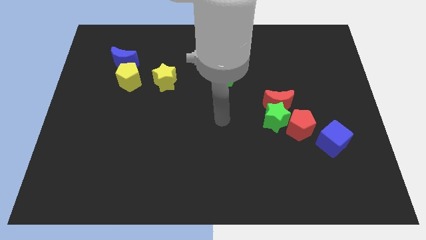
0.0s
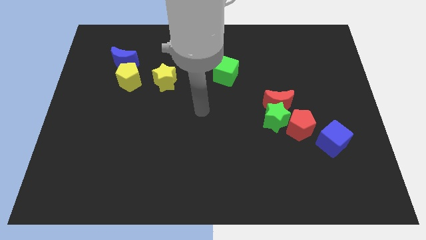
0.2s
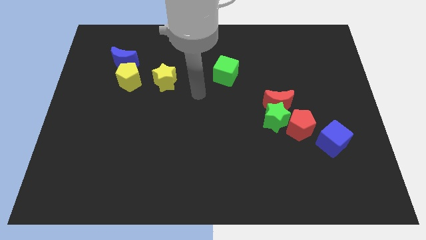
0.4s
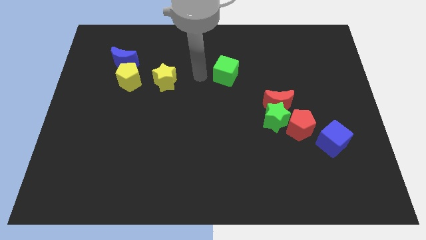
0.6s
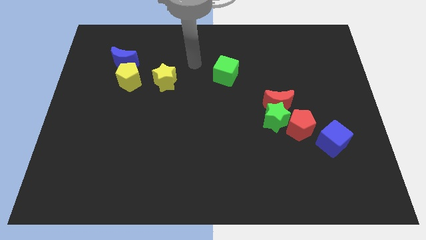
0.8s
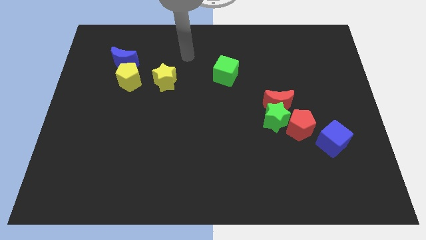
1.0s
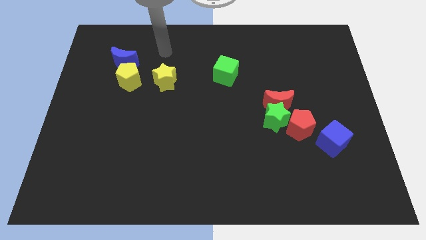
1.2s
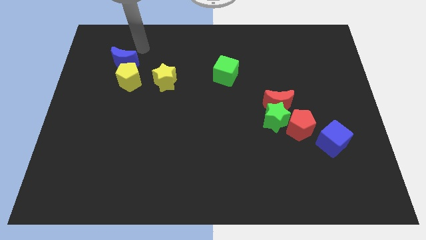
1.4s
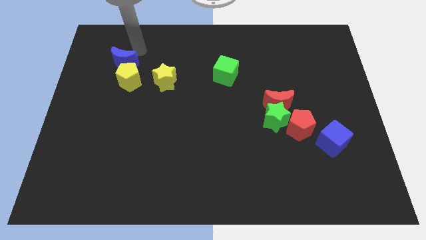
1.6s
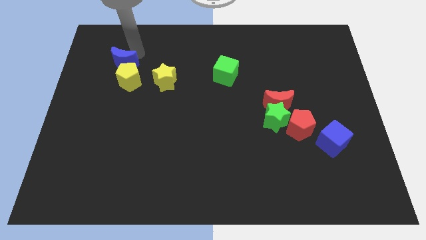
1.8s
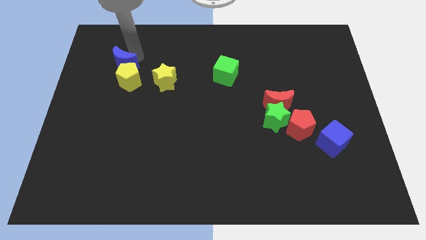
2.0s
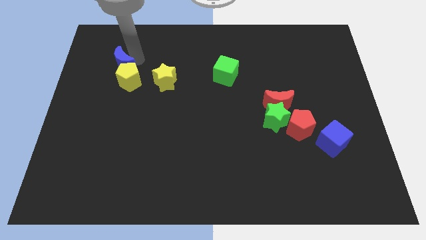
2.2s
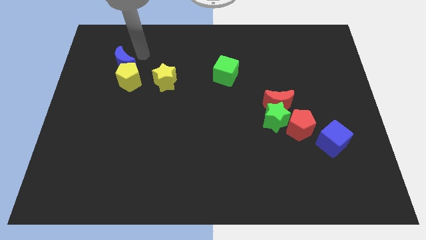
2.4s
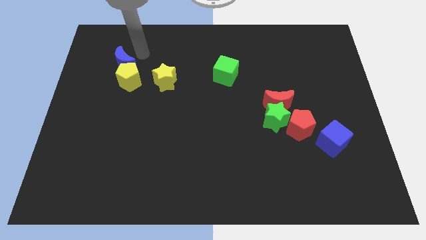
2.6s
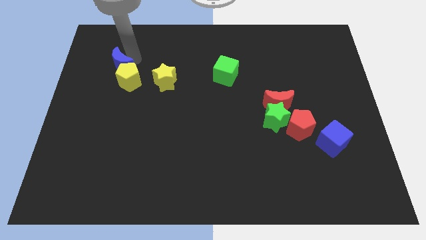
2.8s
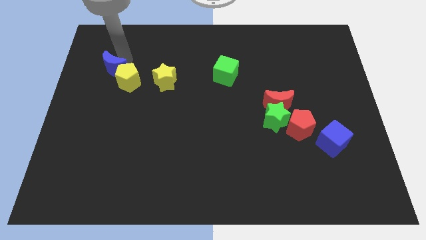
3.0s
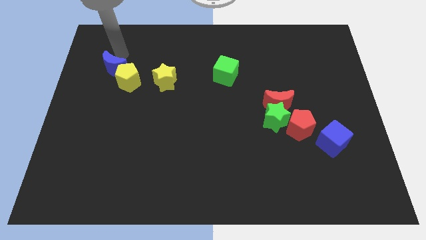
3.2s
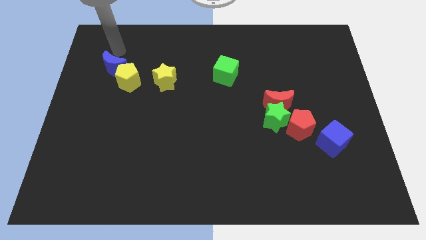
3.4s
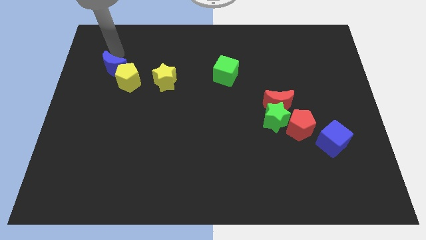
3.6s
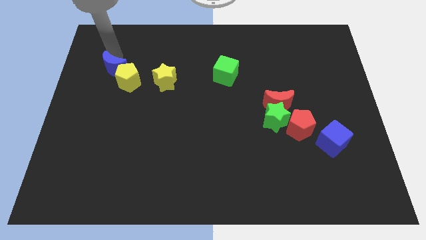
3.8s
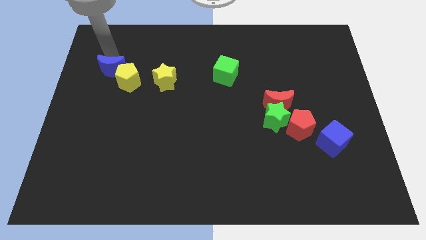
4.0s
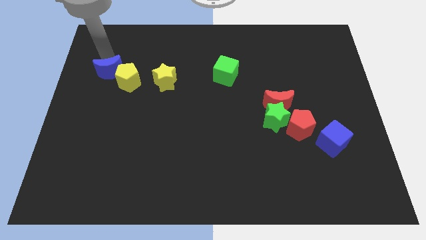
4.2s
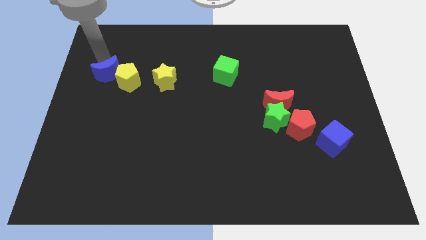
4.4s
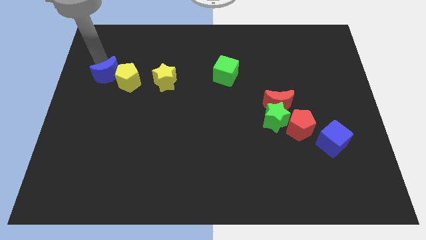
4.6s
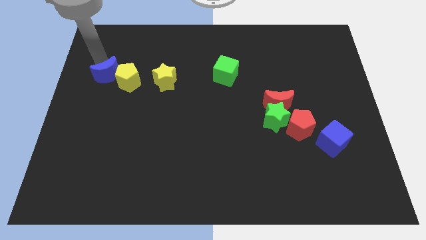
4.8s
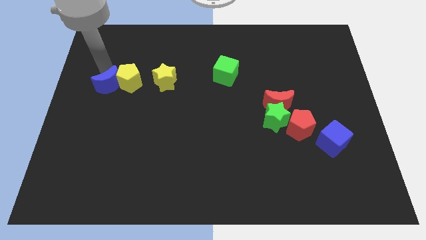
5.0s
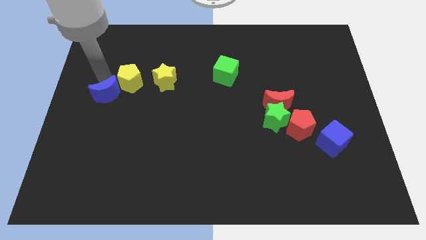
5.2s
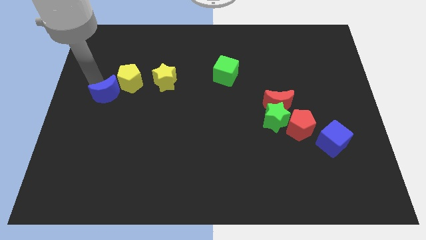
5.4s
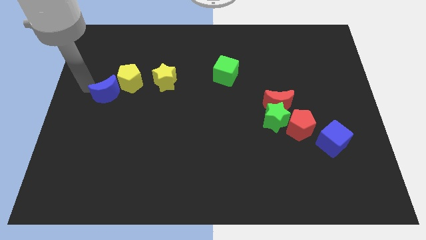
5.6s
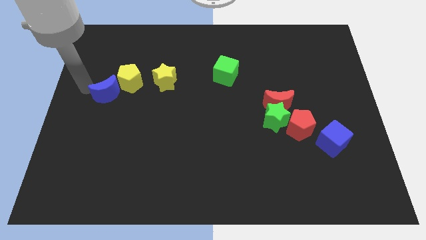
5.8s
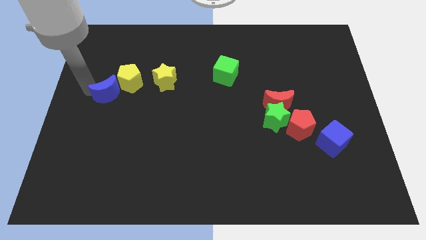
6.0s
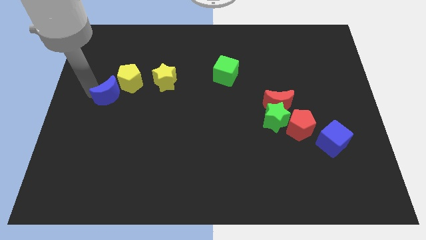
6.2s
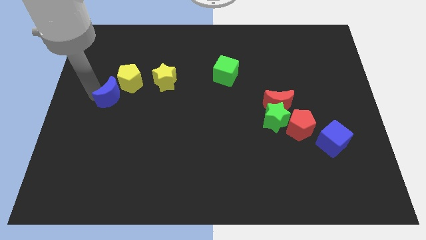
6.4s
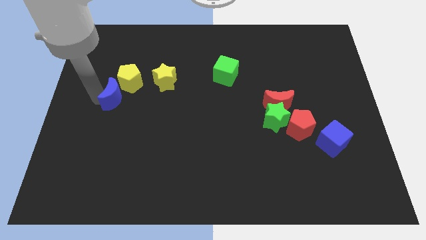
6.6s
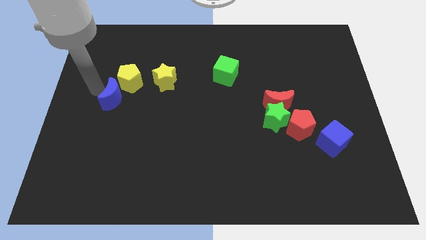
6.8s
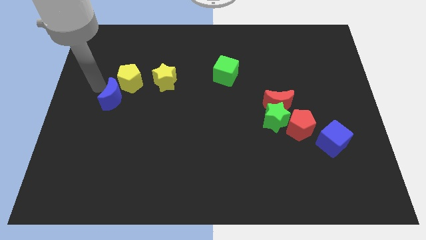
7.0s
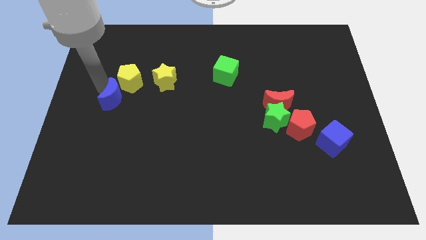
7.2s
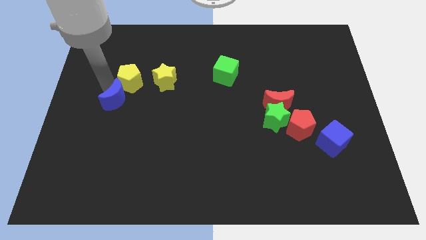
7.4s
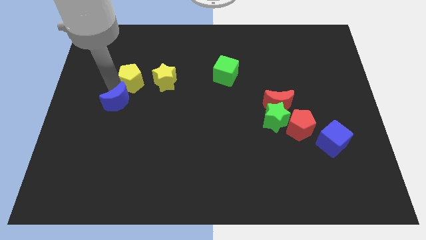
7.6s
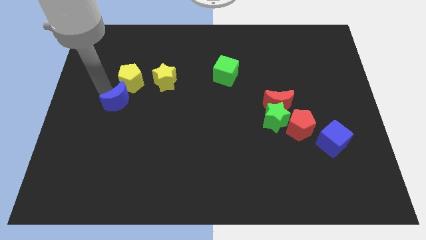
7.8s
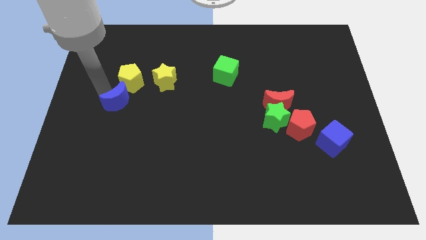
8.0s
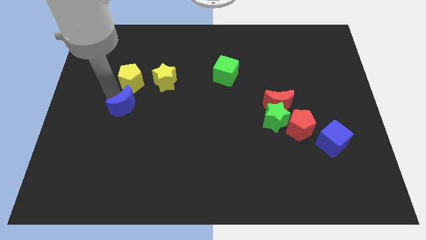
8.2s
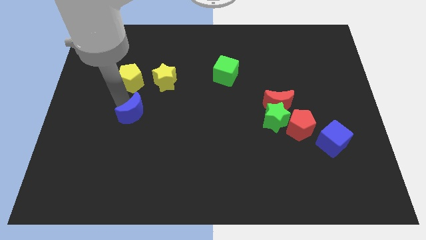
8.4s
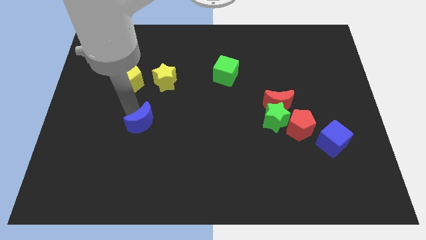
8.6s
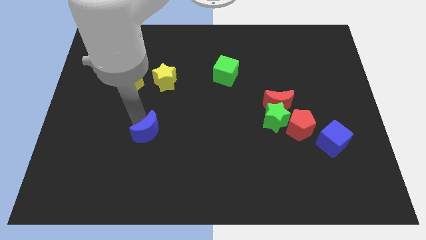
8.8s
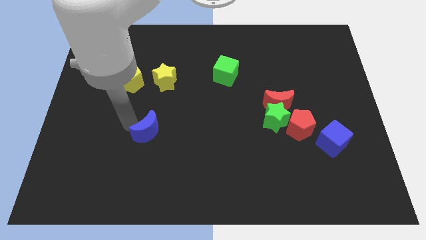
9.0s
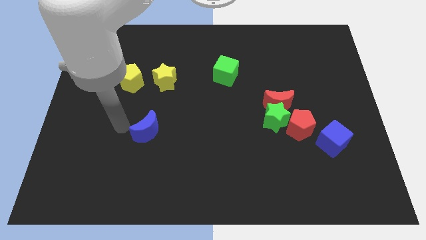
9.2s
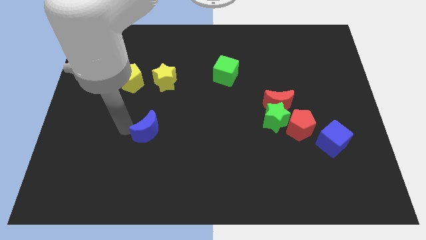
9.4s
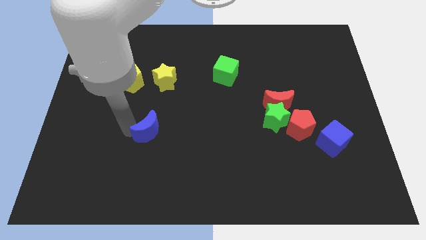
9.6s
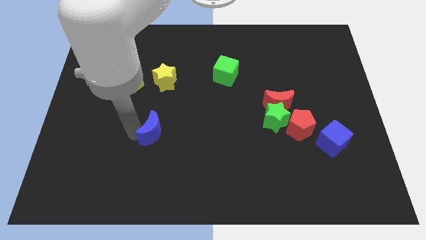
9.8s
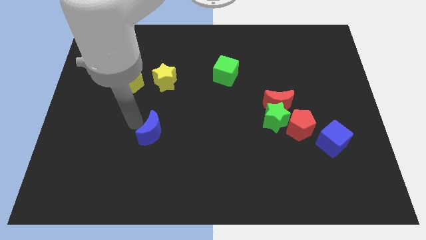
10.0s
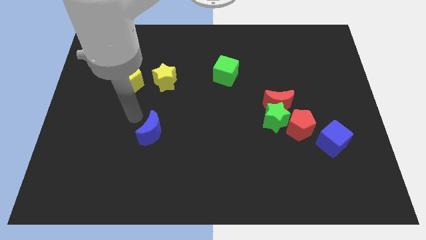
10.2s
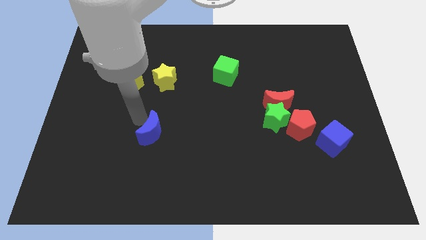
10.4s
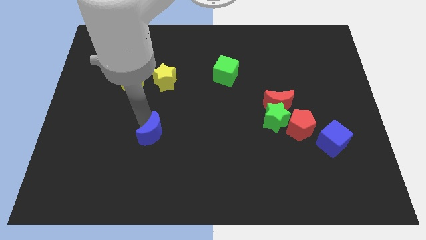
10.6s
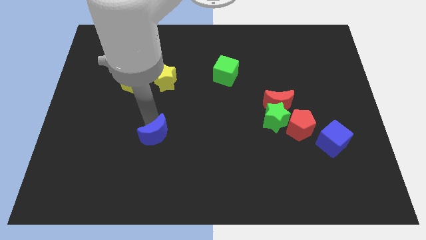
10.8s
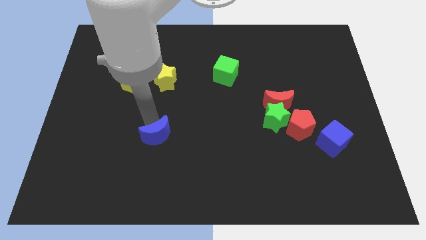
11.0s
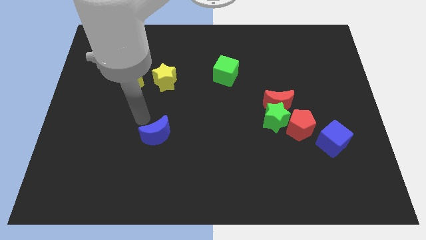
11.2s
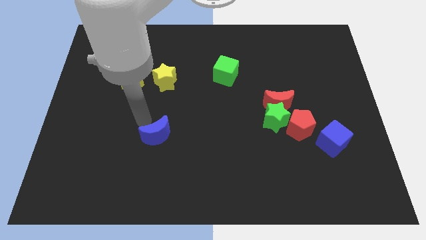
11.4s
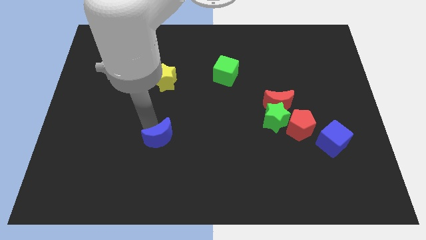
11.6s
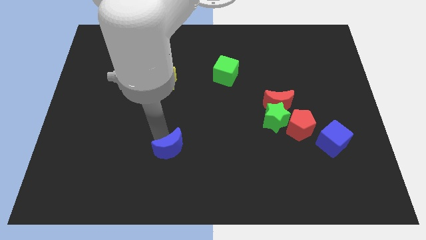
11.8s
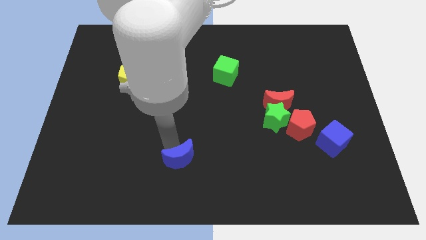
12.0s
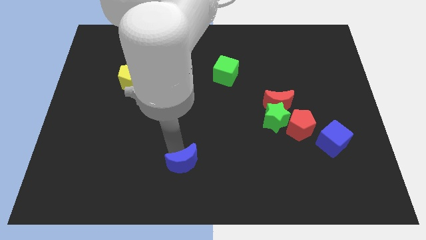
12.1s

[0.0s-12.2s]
move the blue moon to the bottom
